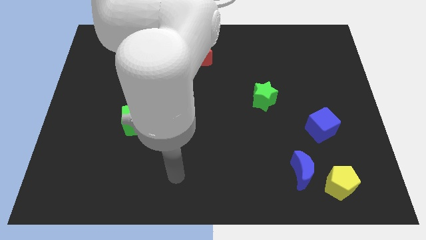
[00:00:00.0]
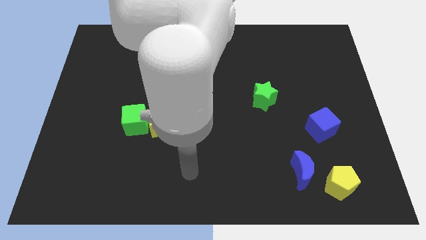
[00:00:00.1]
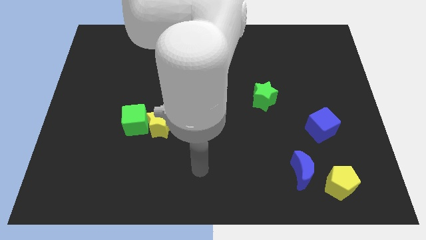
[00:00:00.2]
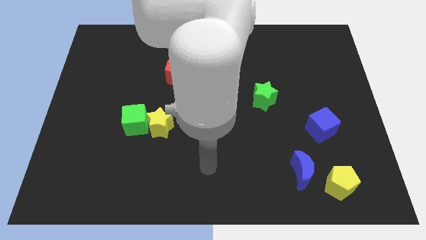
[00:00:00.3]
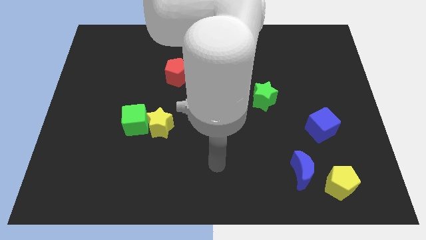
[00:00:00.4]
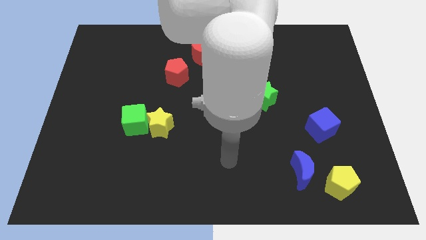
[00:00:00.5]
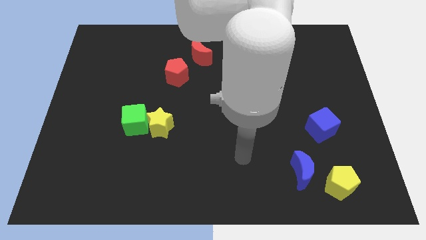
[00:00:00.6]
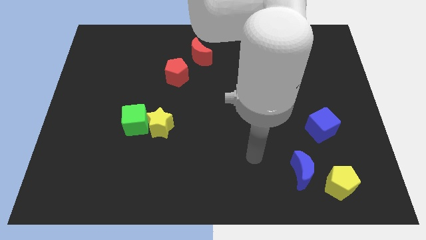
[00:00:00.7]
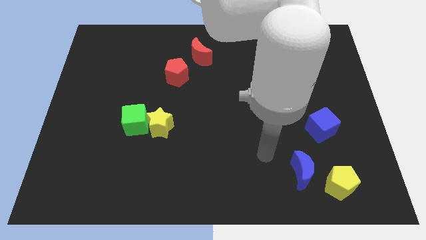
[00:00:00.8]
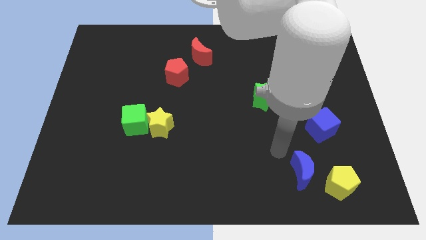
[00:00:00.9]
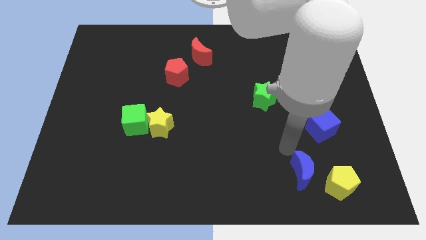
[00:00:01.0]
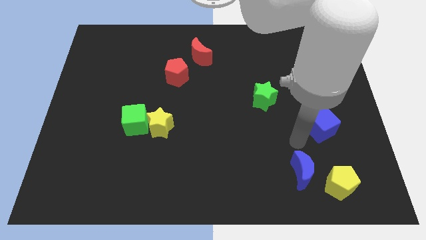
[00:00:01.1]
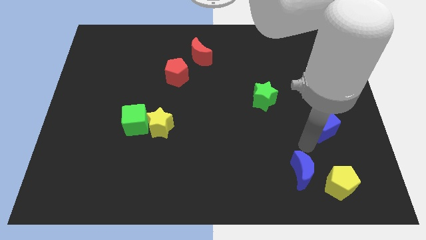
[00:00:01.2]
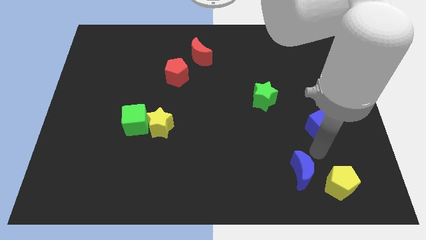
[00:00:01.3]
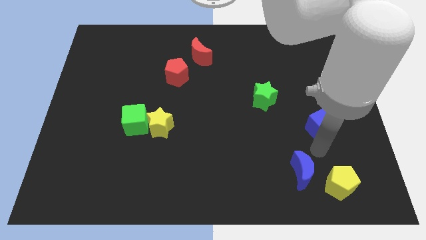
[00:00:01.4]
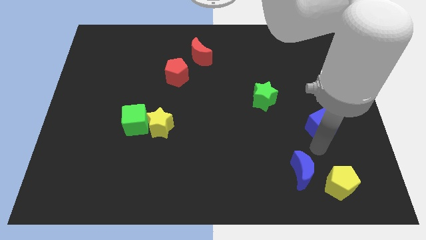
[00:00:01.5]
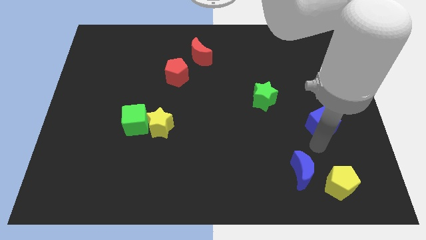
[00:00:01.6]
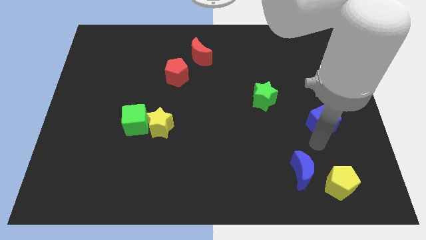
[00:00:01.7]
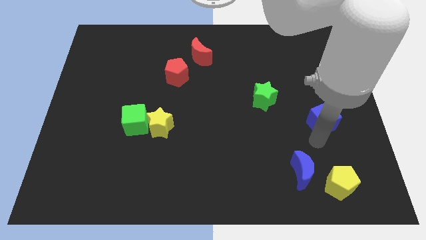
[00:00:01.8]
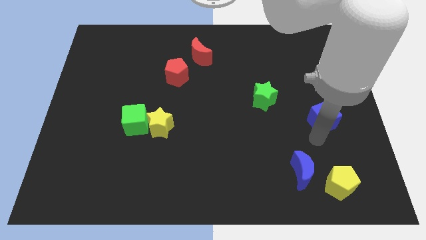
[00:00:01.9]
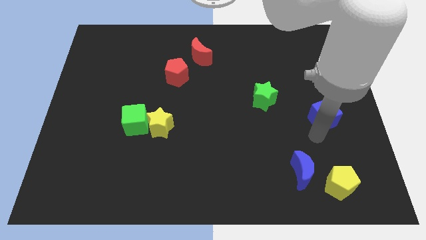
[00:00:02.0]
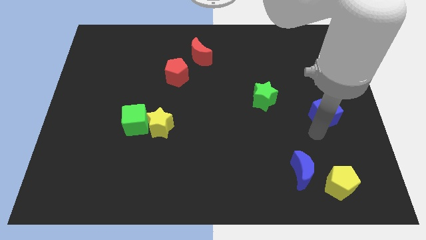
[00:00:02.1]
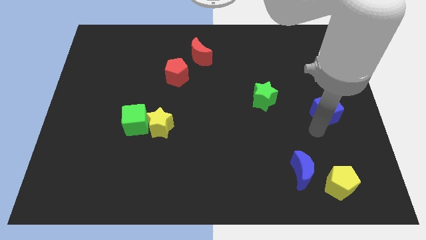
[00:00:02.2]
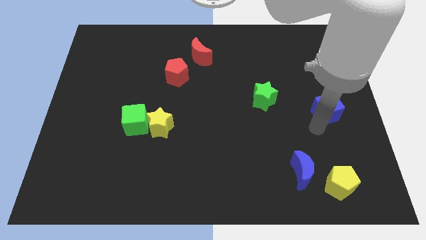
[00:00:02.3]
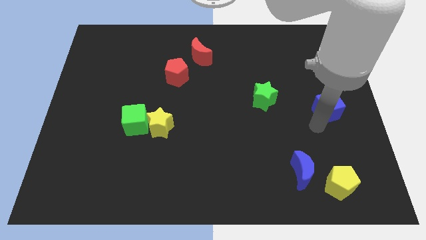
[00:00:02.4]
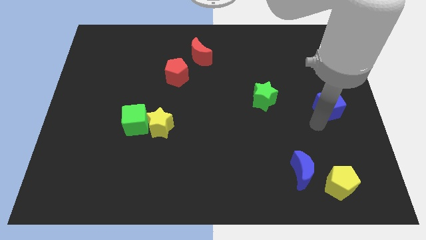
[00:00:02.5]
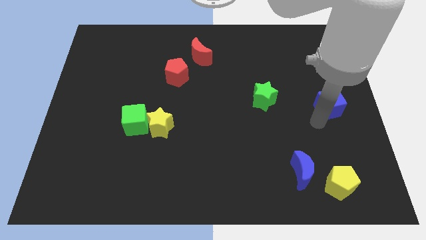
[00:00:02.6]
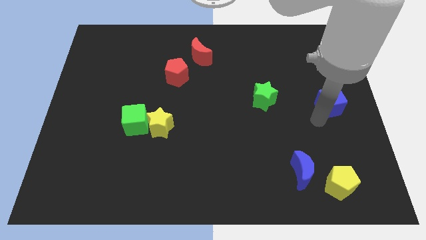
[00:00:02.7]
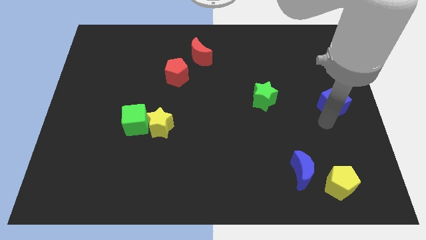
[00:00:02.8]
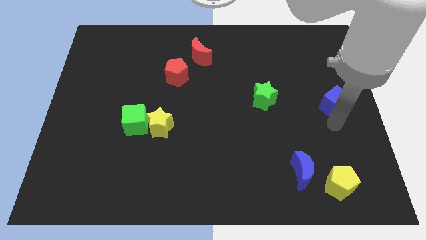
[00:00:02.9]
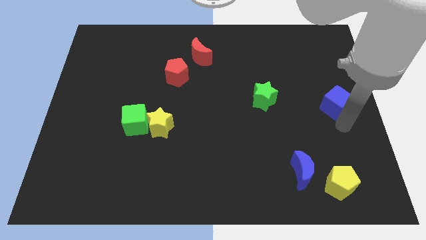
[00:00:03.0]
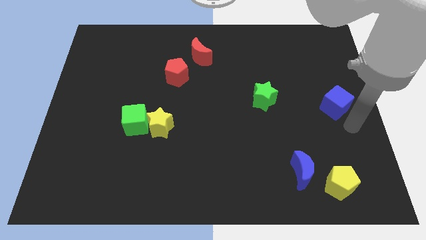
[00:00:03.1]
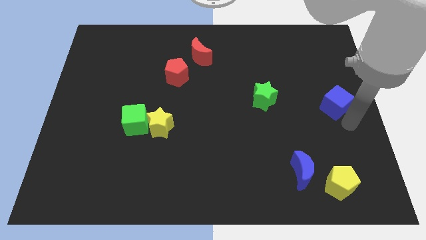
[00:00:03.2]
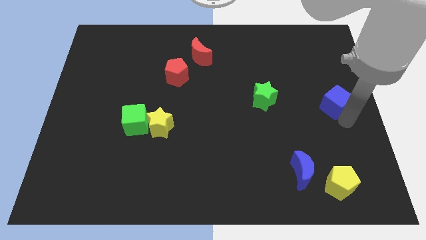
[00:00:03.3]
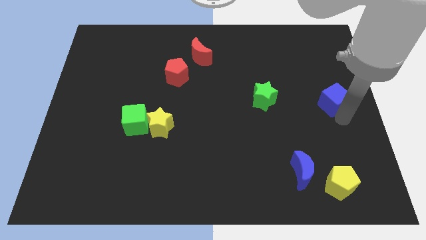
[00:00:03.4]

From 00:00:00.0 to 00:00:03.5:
move the blue cube upwards slightly

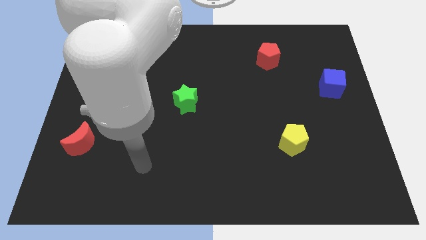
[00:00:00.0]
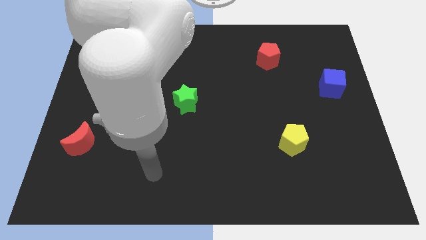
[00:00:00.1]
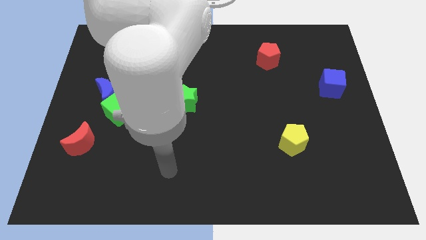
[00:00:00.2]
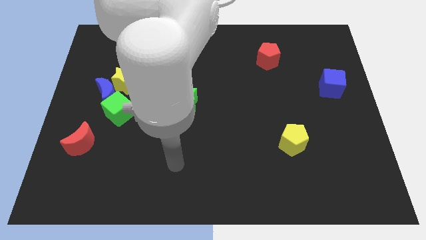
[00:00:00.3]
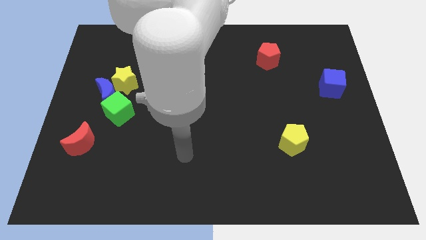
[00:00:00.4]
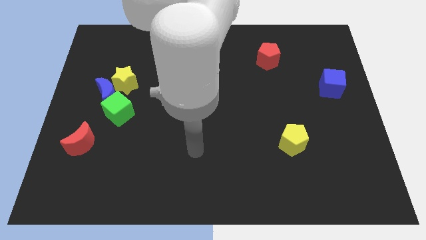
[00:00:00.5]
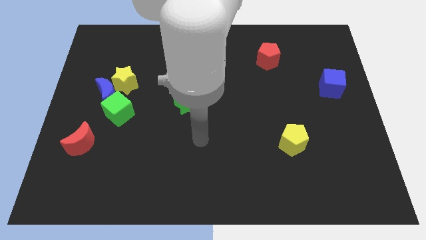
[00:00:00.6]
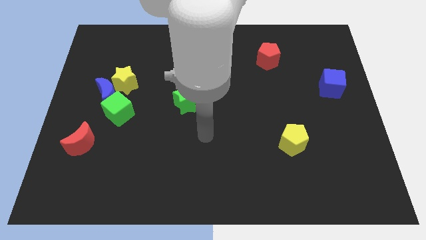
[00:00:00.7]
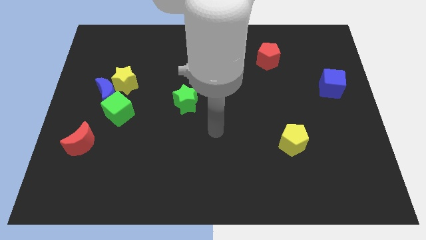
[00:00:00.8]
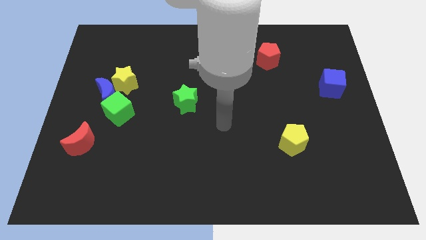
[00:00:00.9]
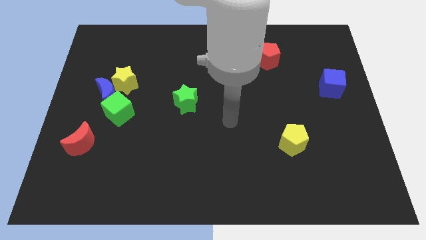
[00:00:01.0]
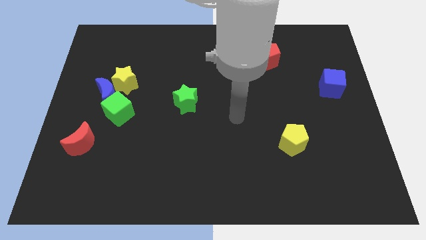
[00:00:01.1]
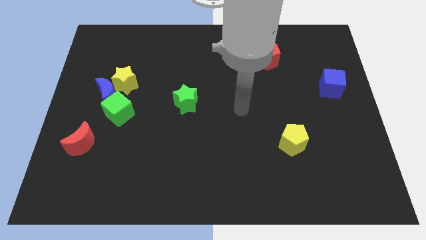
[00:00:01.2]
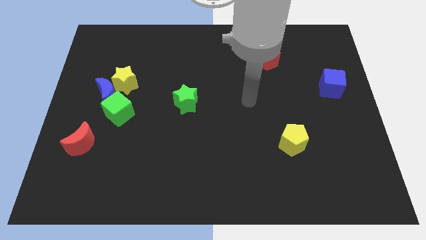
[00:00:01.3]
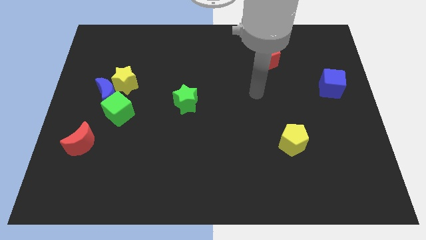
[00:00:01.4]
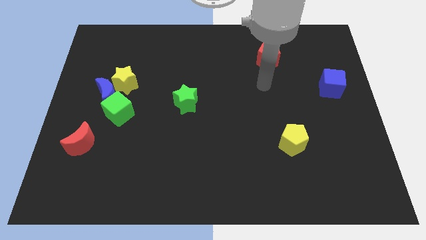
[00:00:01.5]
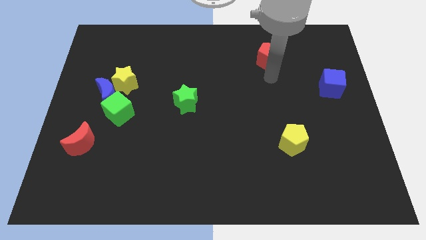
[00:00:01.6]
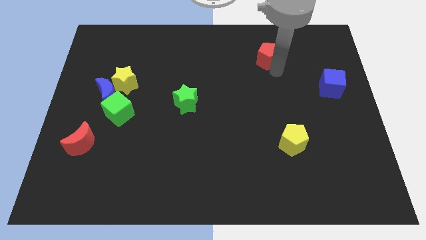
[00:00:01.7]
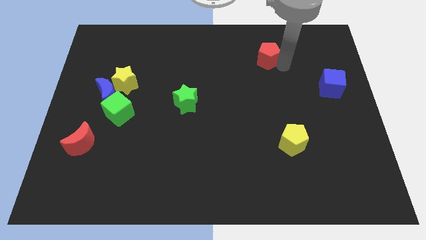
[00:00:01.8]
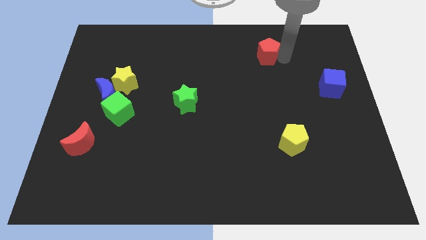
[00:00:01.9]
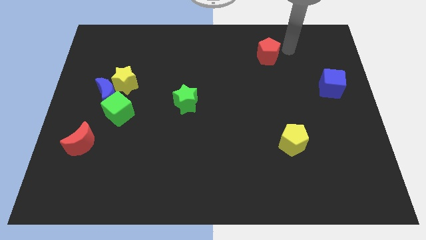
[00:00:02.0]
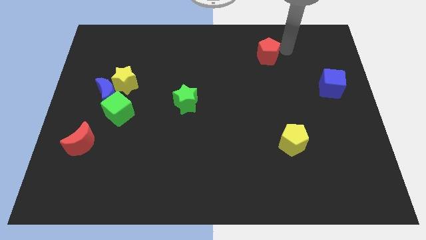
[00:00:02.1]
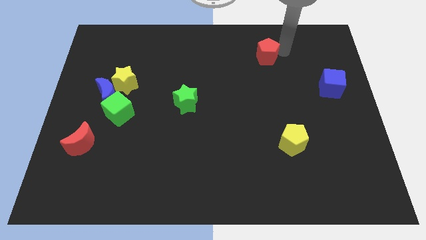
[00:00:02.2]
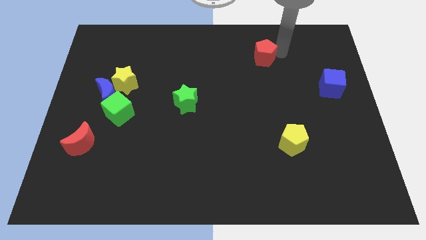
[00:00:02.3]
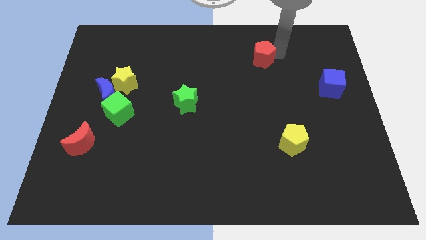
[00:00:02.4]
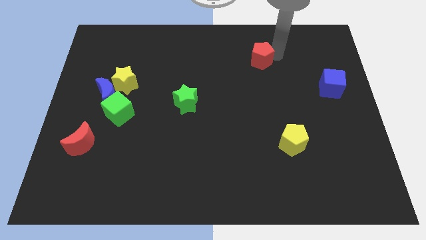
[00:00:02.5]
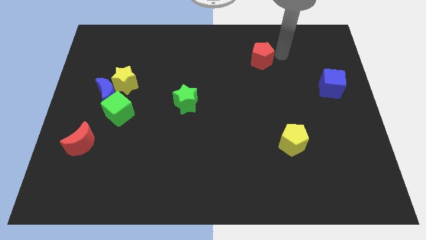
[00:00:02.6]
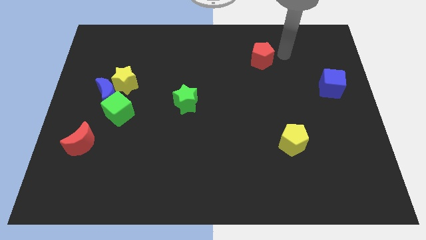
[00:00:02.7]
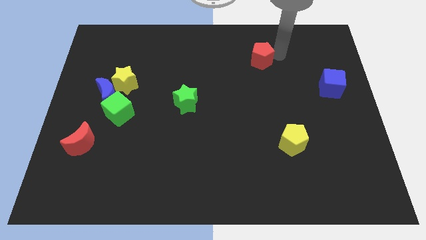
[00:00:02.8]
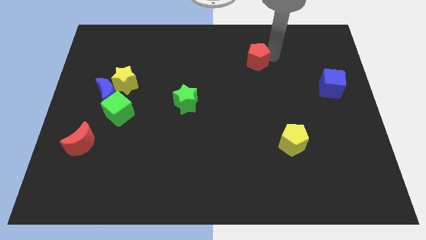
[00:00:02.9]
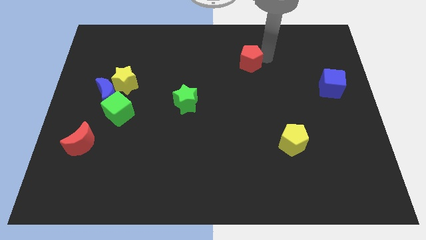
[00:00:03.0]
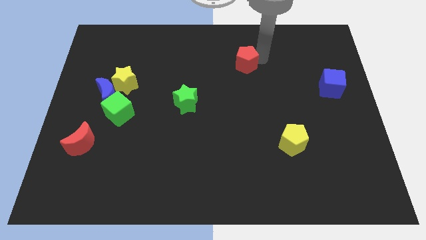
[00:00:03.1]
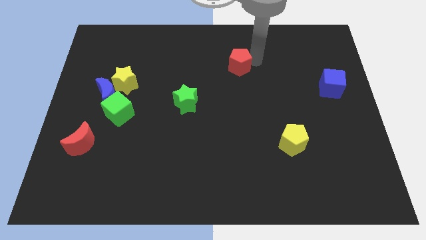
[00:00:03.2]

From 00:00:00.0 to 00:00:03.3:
slightly slide the red pentagon left

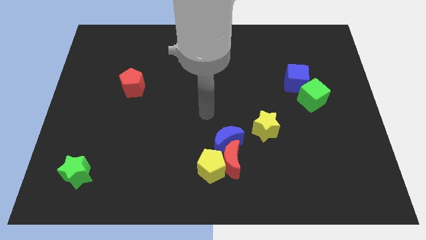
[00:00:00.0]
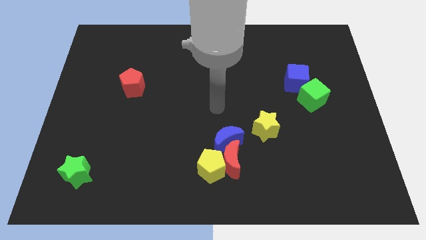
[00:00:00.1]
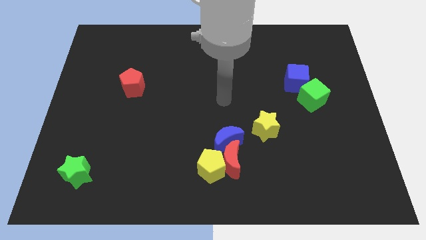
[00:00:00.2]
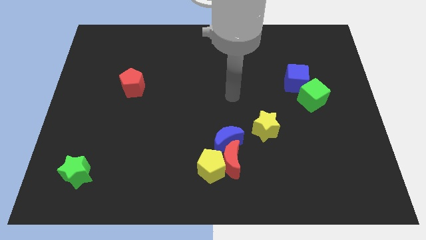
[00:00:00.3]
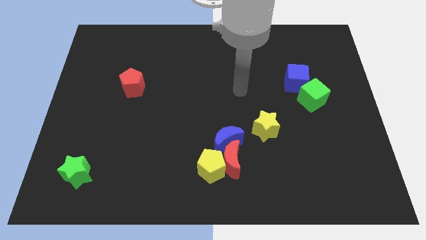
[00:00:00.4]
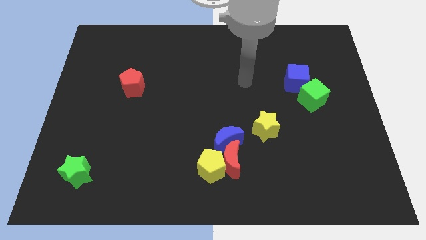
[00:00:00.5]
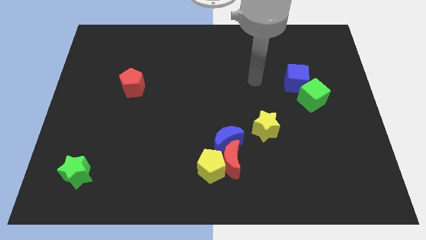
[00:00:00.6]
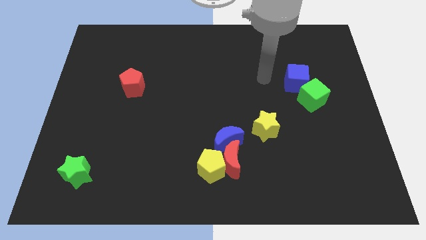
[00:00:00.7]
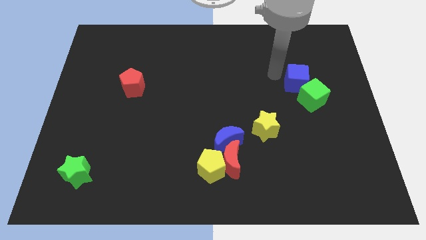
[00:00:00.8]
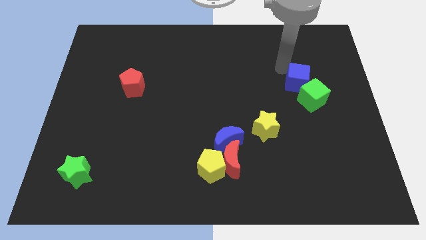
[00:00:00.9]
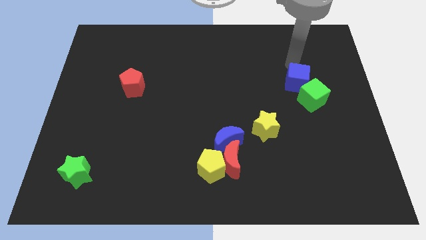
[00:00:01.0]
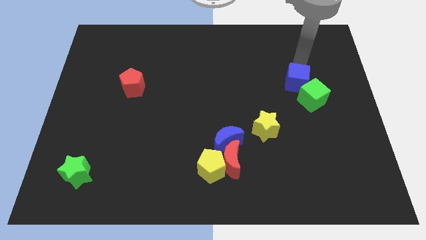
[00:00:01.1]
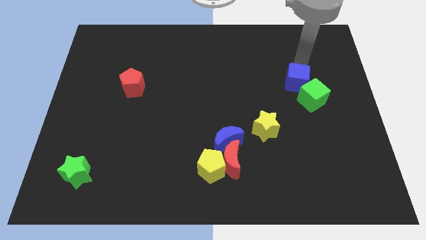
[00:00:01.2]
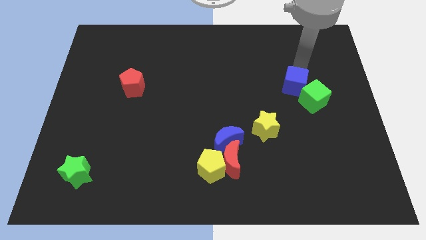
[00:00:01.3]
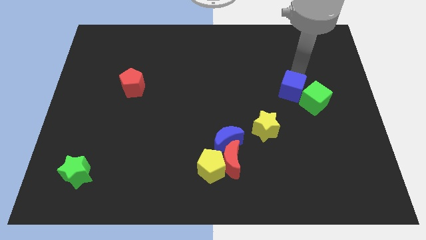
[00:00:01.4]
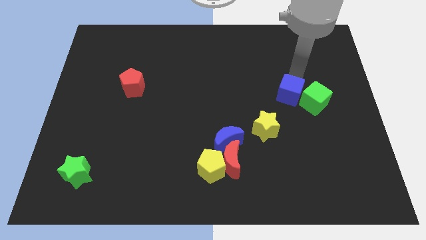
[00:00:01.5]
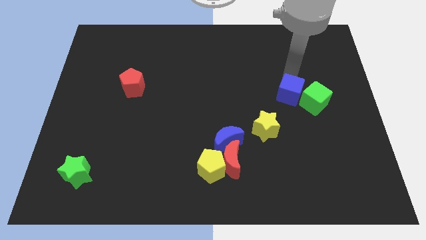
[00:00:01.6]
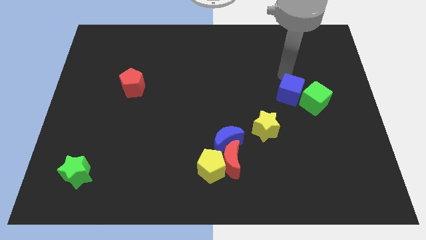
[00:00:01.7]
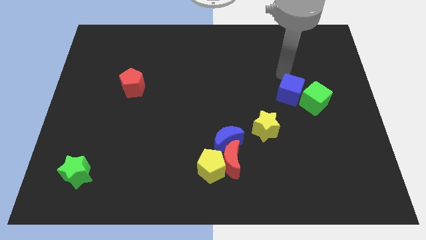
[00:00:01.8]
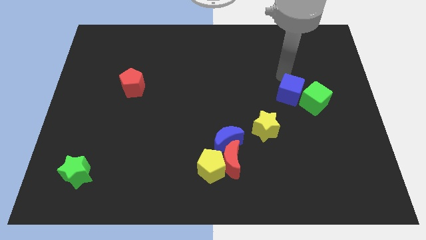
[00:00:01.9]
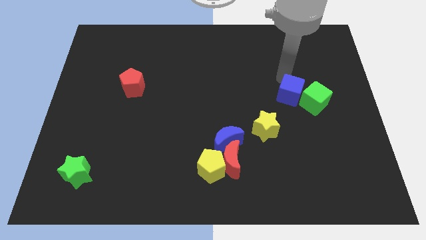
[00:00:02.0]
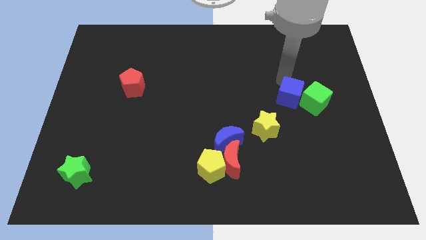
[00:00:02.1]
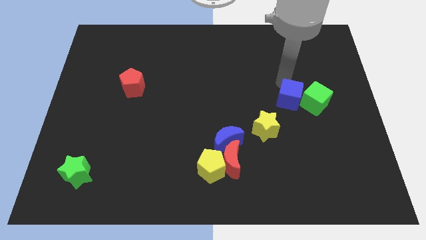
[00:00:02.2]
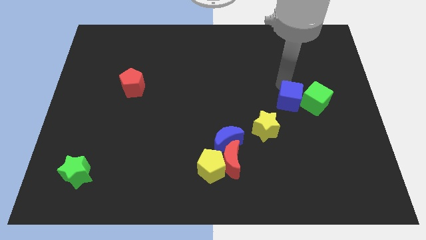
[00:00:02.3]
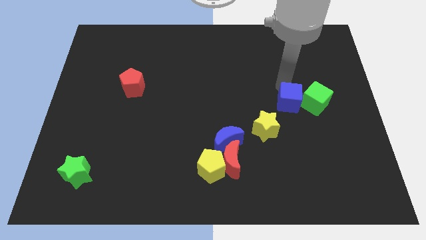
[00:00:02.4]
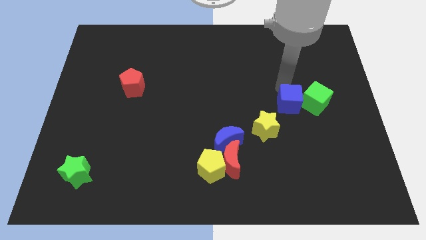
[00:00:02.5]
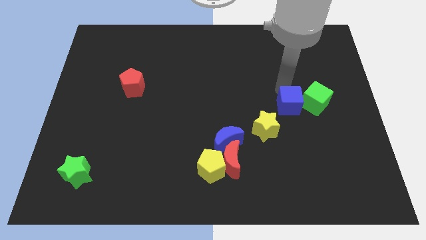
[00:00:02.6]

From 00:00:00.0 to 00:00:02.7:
push the blue cube downwards a bit
